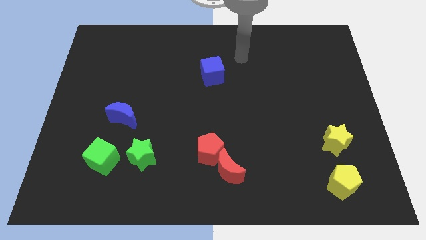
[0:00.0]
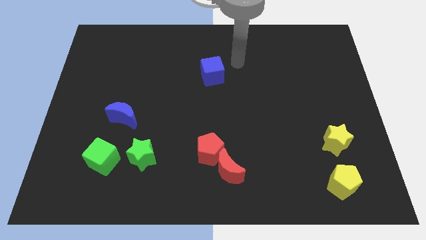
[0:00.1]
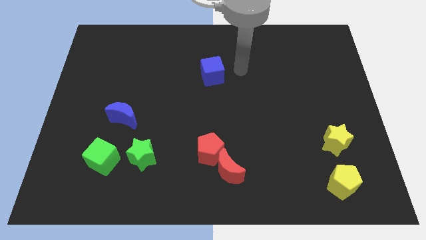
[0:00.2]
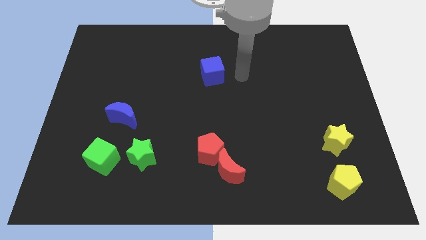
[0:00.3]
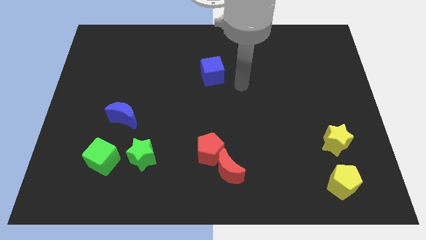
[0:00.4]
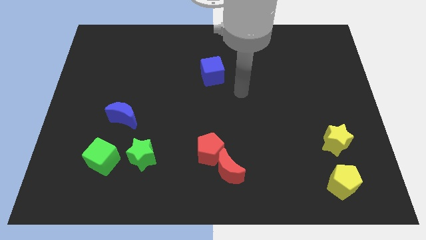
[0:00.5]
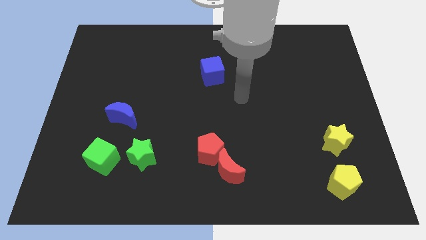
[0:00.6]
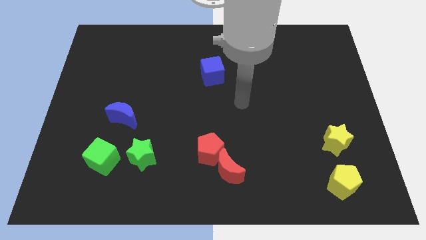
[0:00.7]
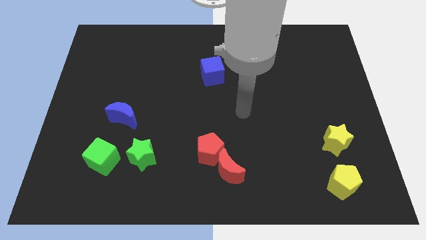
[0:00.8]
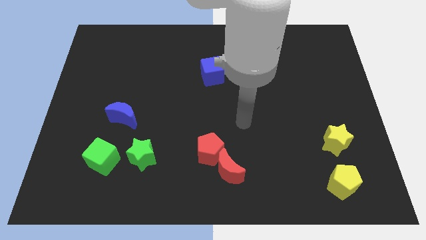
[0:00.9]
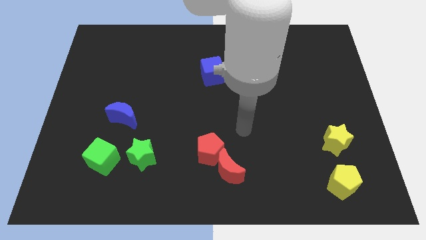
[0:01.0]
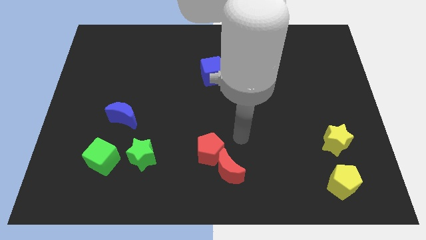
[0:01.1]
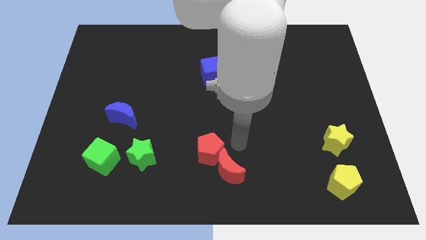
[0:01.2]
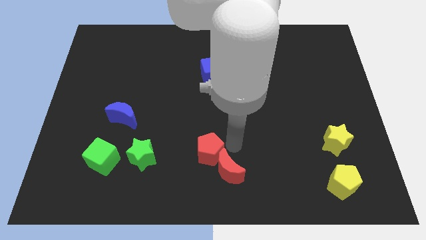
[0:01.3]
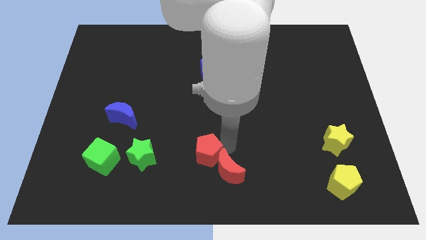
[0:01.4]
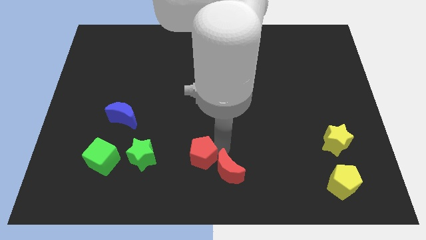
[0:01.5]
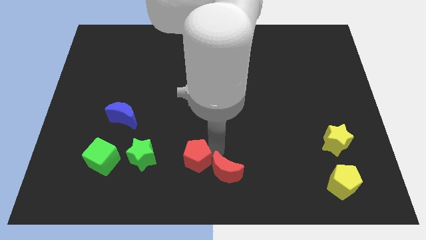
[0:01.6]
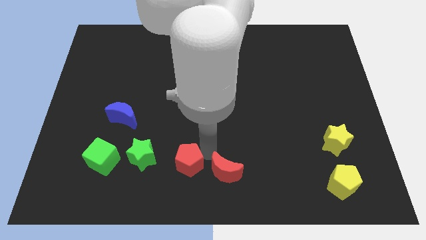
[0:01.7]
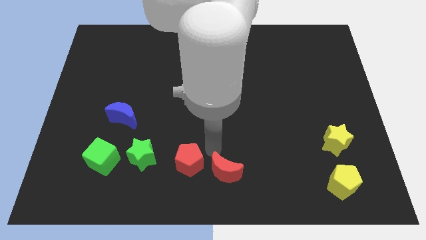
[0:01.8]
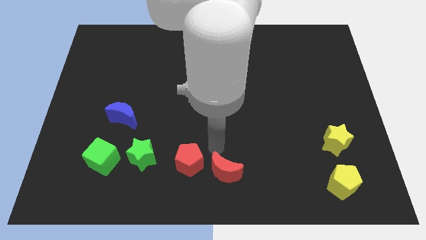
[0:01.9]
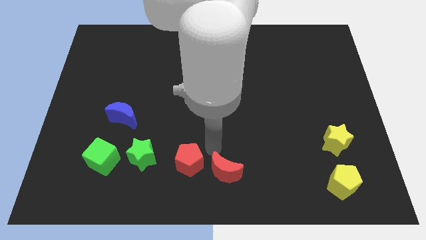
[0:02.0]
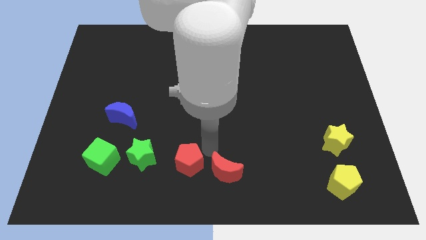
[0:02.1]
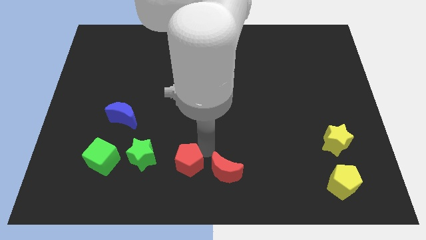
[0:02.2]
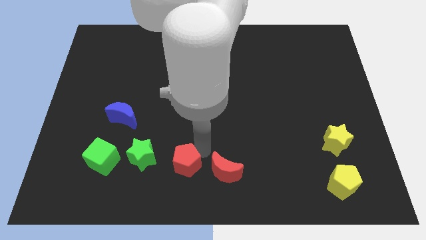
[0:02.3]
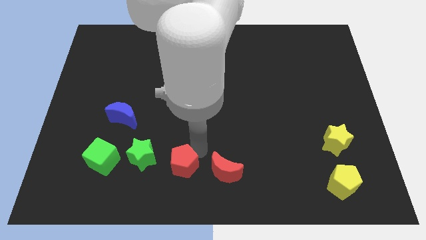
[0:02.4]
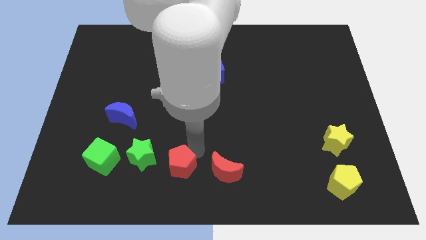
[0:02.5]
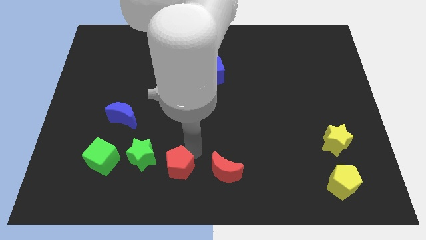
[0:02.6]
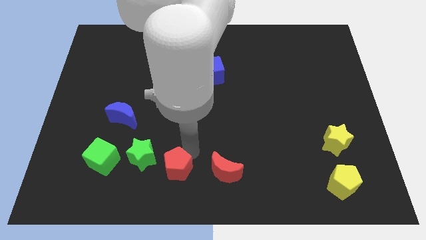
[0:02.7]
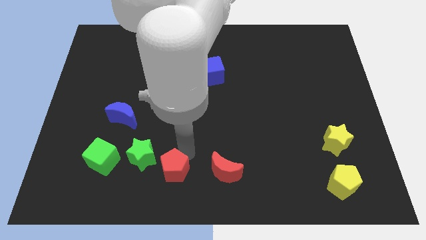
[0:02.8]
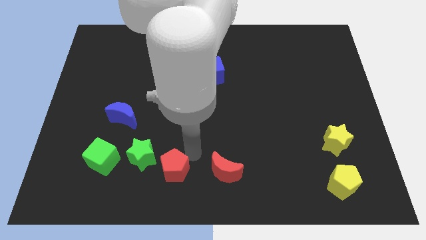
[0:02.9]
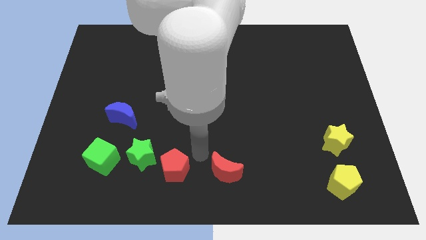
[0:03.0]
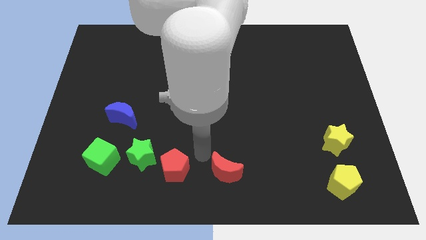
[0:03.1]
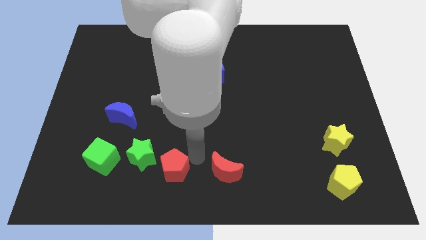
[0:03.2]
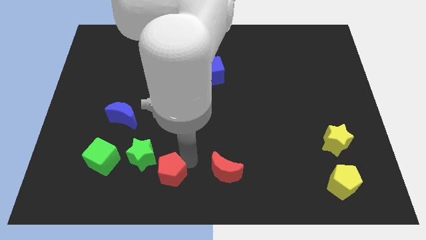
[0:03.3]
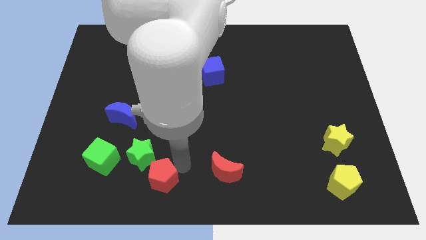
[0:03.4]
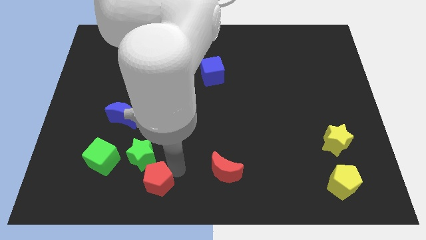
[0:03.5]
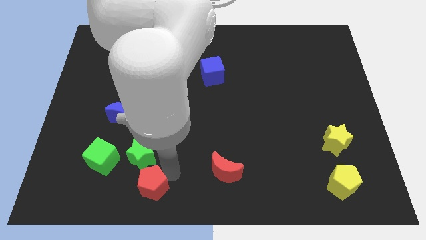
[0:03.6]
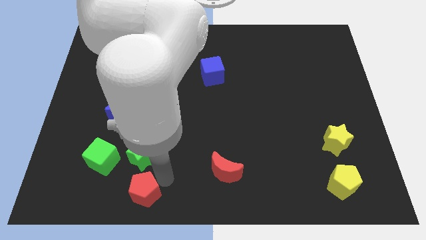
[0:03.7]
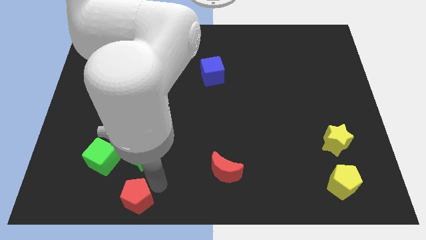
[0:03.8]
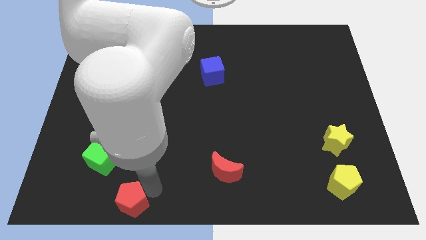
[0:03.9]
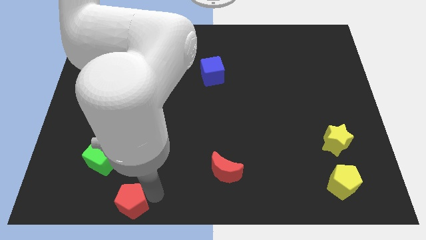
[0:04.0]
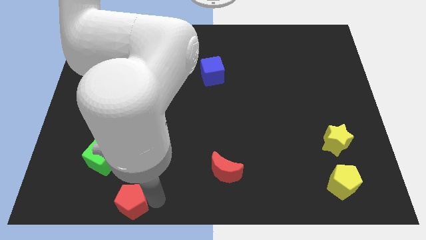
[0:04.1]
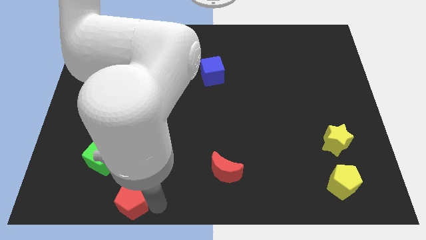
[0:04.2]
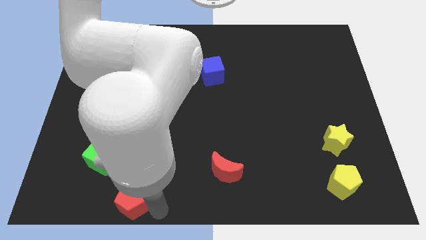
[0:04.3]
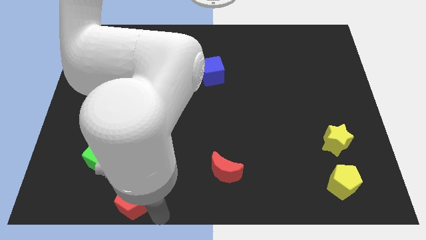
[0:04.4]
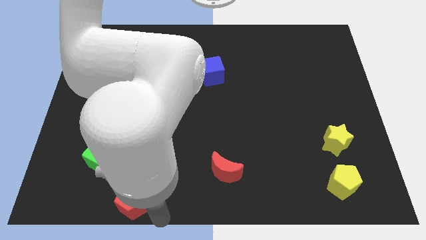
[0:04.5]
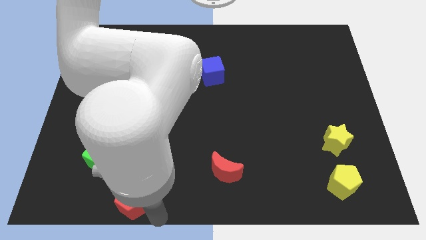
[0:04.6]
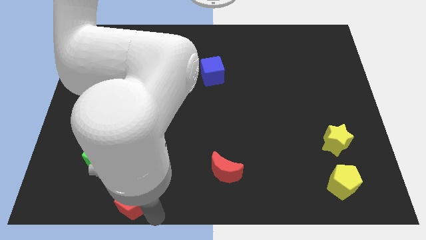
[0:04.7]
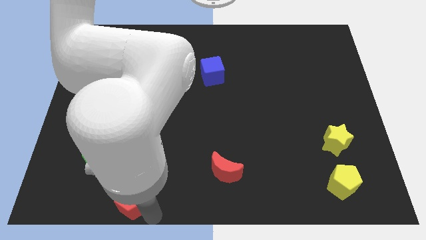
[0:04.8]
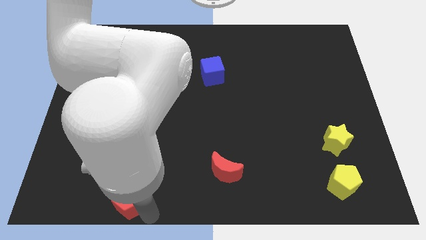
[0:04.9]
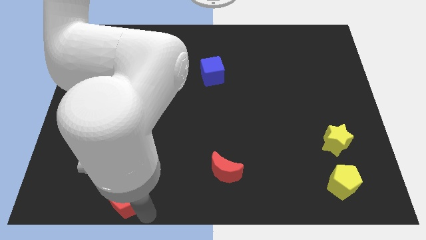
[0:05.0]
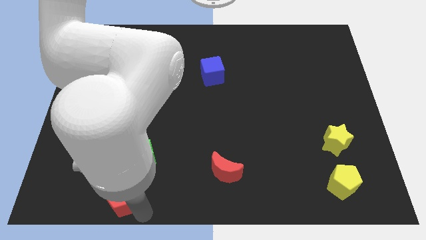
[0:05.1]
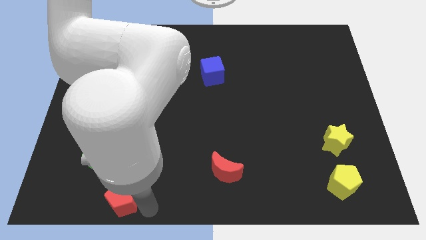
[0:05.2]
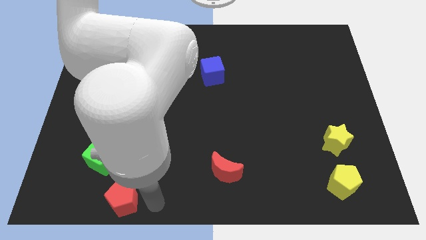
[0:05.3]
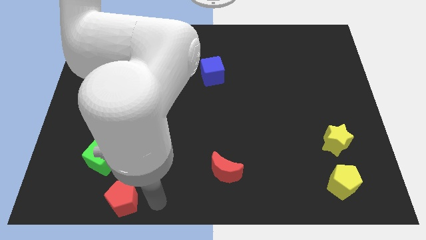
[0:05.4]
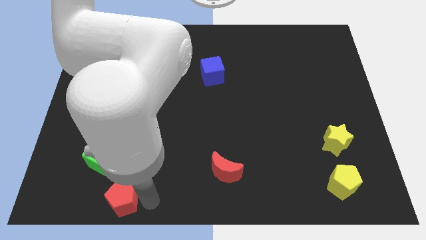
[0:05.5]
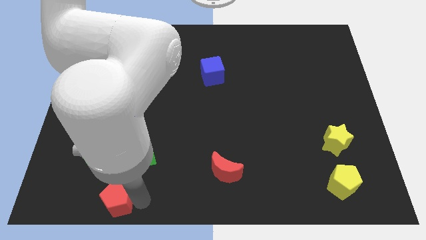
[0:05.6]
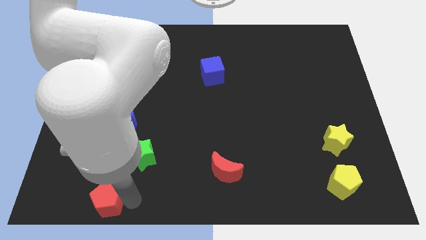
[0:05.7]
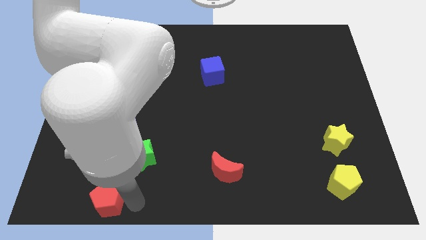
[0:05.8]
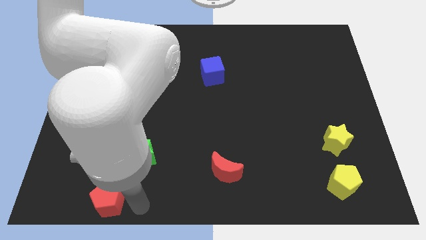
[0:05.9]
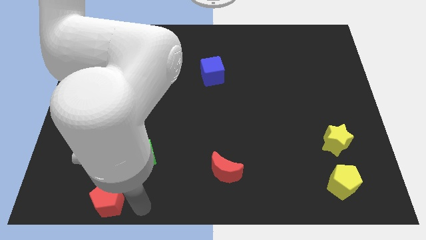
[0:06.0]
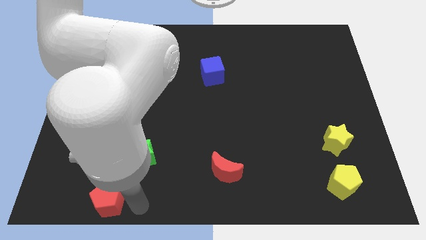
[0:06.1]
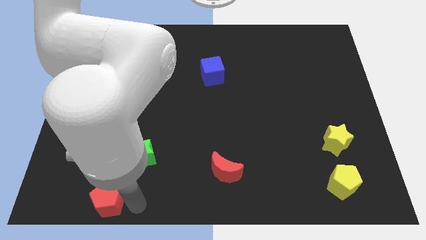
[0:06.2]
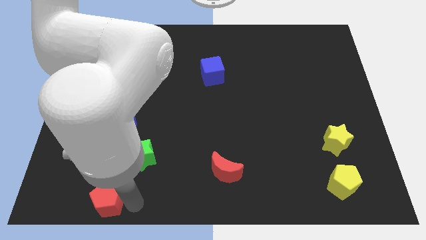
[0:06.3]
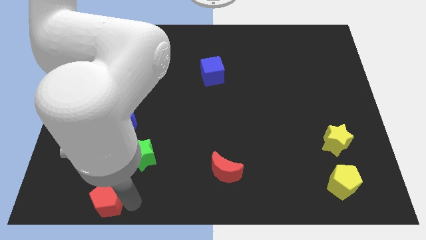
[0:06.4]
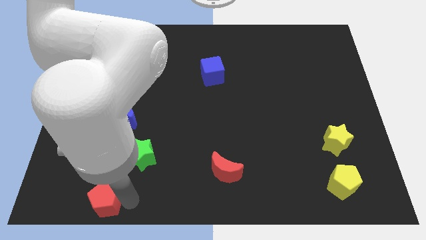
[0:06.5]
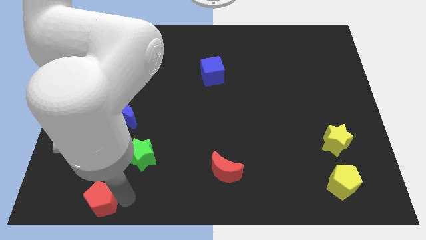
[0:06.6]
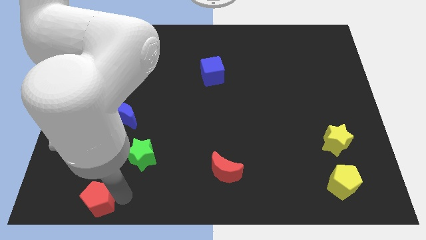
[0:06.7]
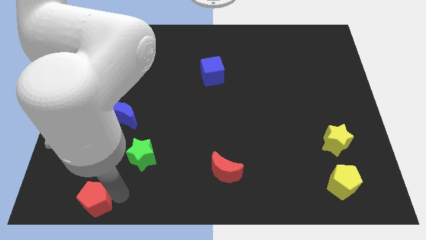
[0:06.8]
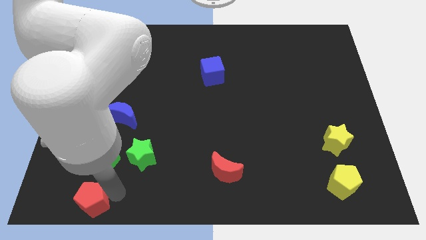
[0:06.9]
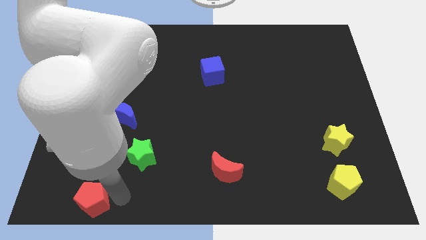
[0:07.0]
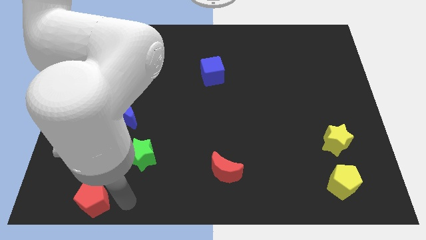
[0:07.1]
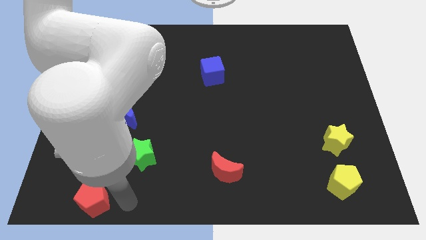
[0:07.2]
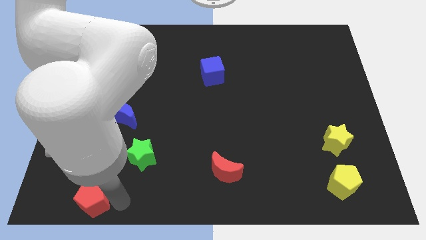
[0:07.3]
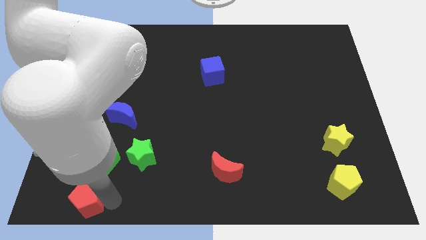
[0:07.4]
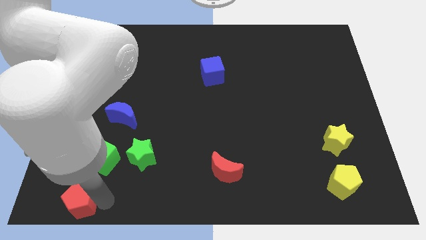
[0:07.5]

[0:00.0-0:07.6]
push the red pentagon to the bottom left of the board
